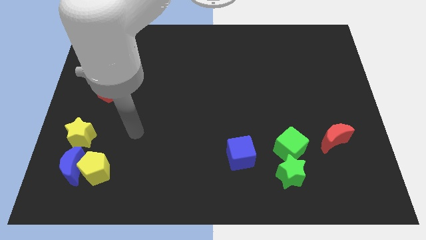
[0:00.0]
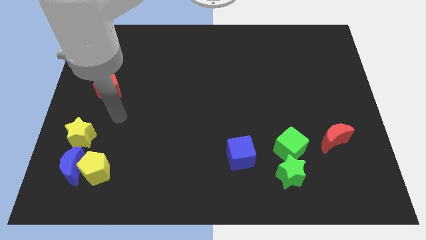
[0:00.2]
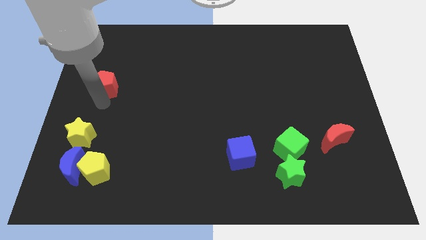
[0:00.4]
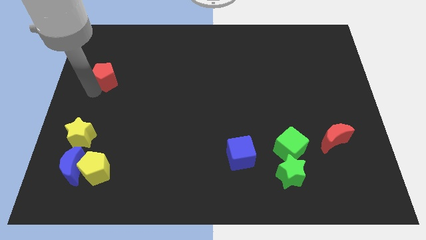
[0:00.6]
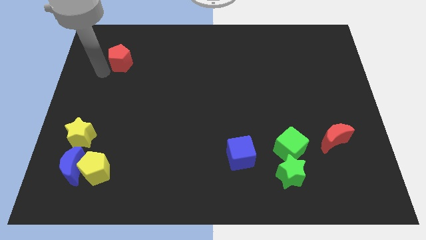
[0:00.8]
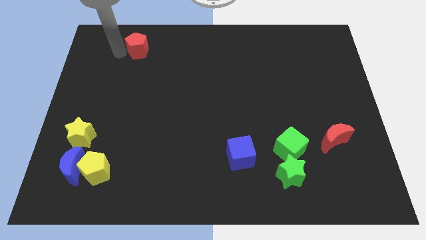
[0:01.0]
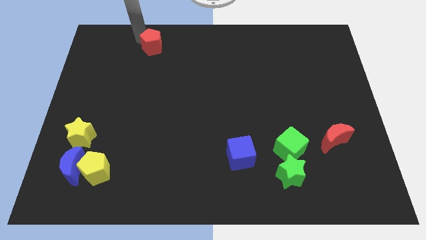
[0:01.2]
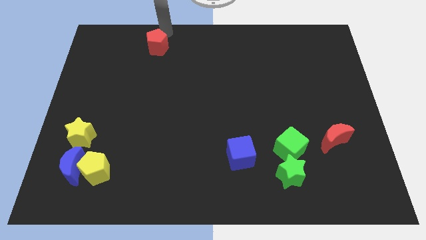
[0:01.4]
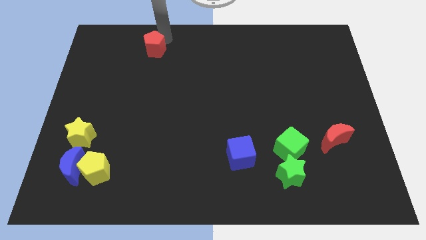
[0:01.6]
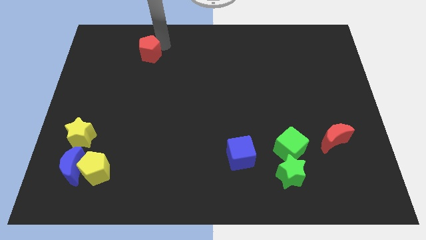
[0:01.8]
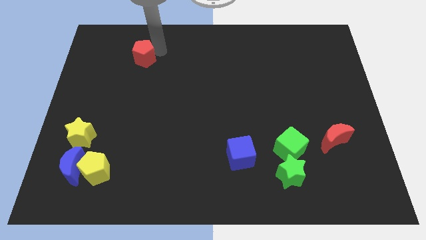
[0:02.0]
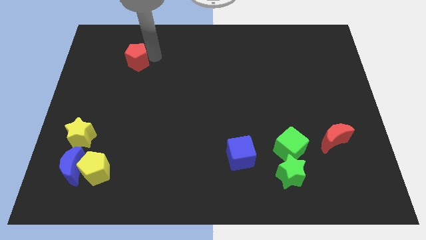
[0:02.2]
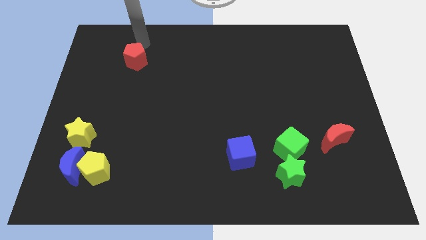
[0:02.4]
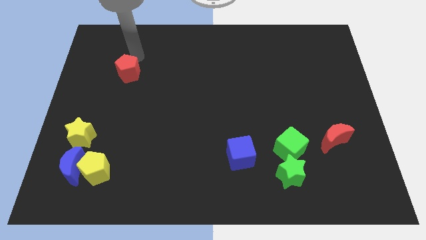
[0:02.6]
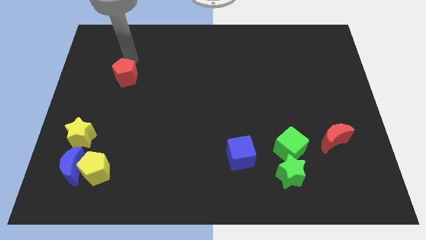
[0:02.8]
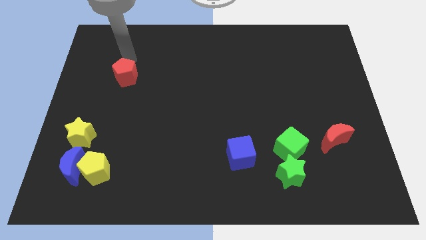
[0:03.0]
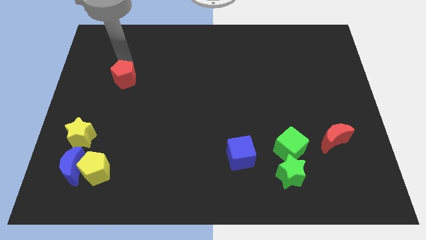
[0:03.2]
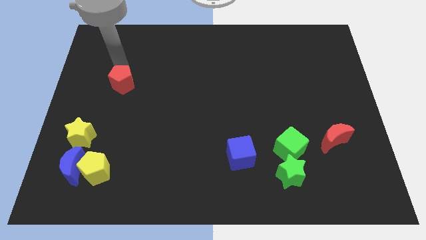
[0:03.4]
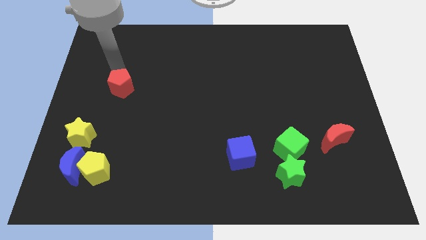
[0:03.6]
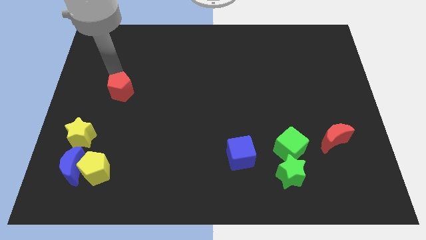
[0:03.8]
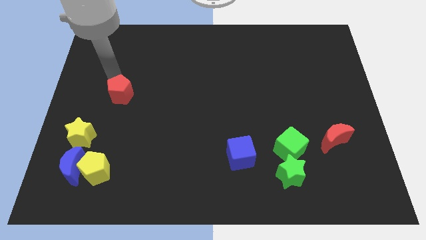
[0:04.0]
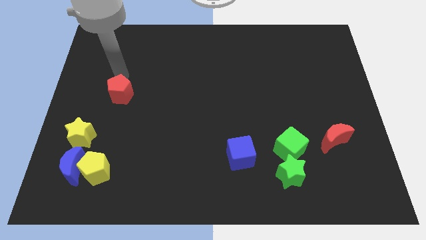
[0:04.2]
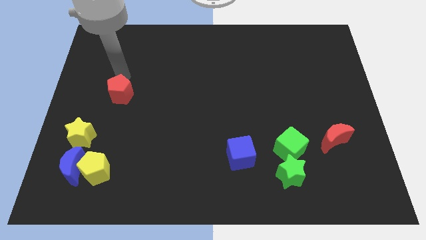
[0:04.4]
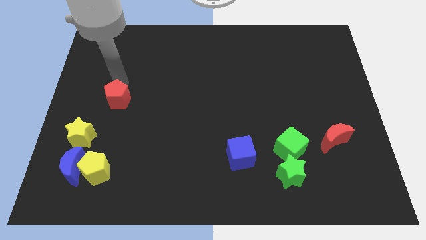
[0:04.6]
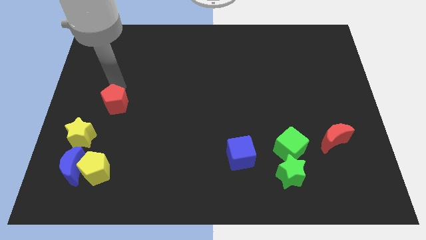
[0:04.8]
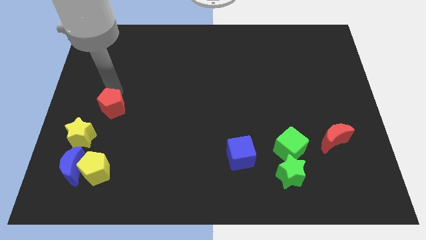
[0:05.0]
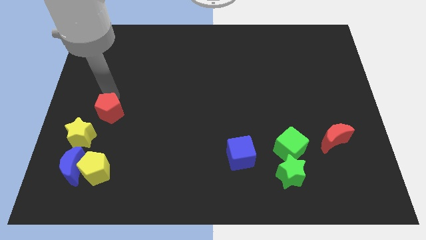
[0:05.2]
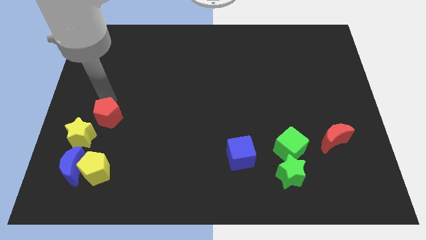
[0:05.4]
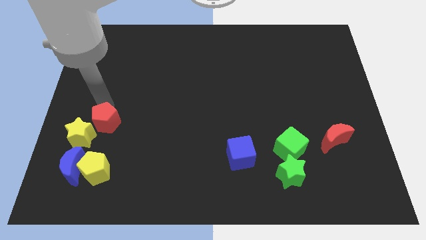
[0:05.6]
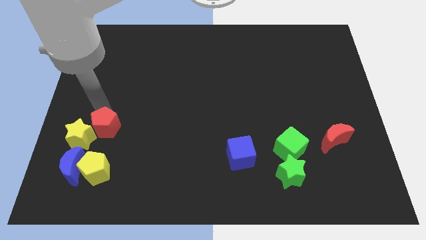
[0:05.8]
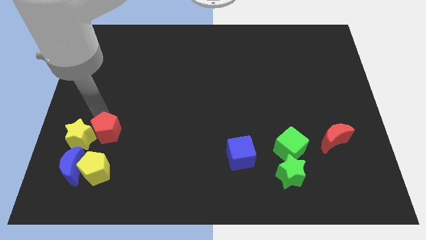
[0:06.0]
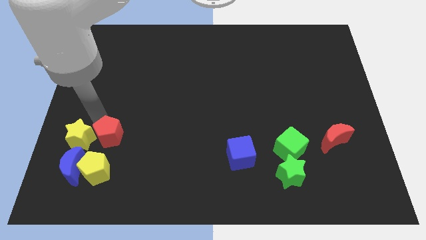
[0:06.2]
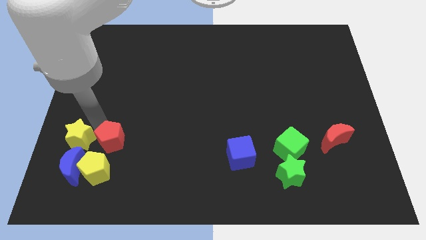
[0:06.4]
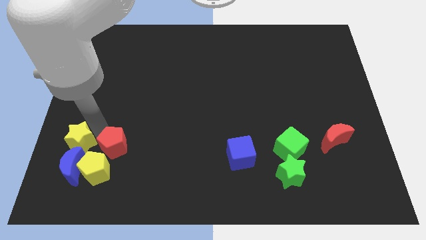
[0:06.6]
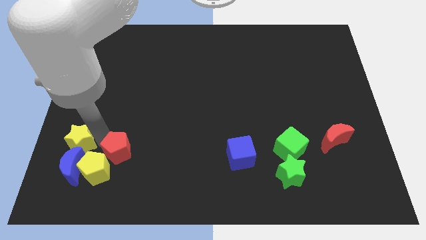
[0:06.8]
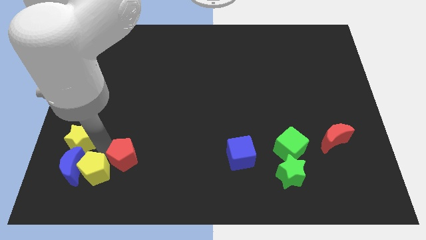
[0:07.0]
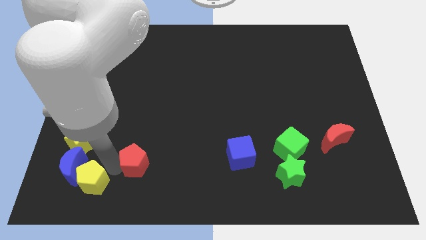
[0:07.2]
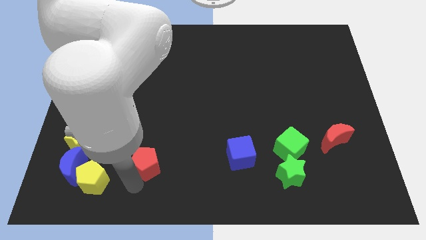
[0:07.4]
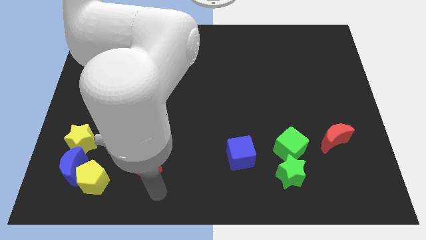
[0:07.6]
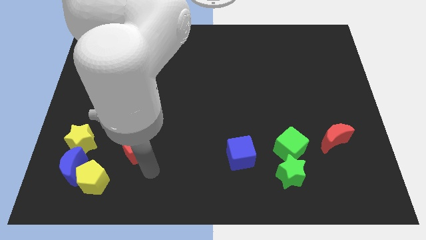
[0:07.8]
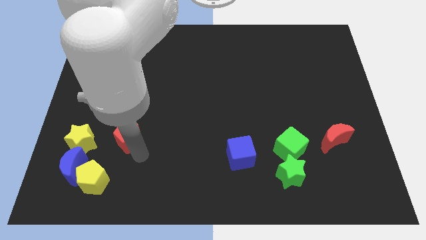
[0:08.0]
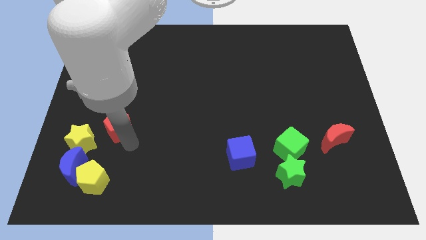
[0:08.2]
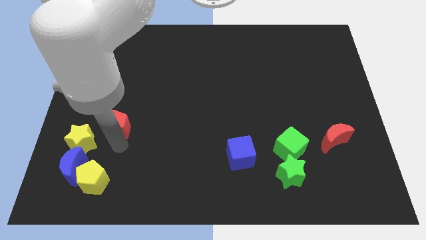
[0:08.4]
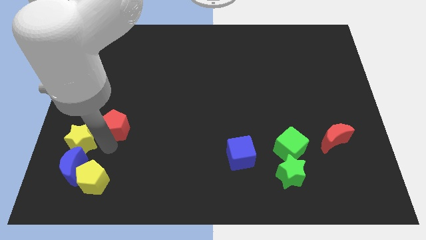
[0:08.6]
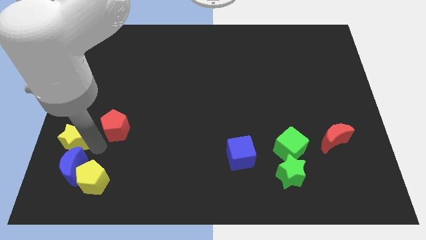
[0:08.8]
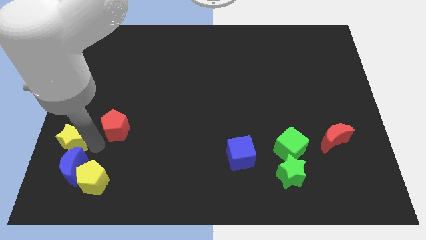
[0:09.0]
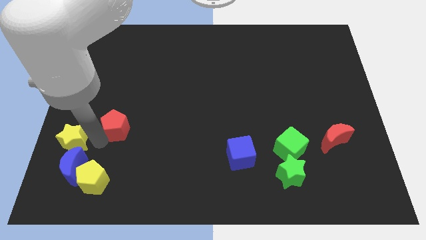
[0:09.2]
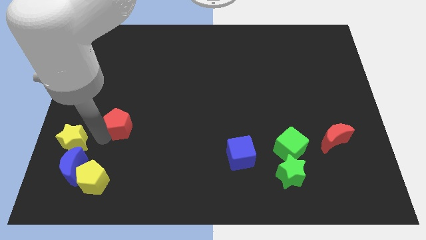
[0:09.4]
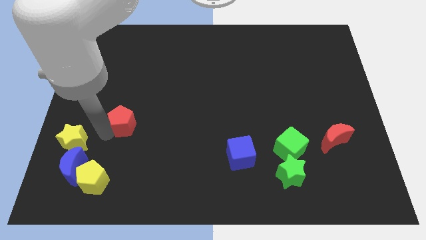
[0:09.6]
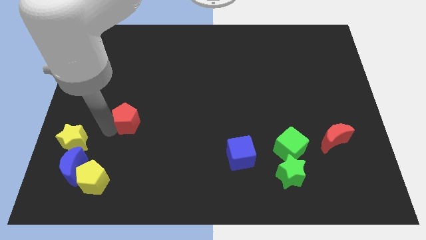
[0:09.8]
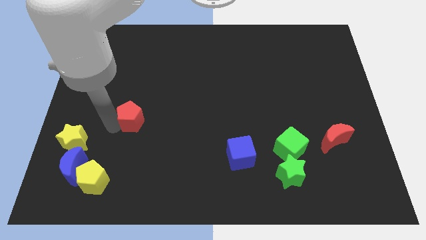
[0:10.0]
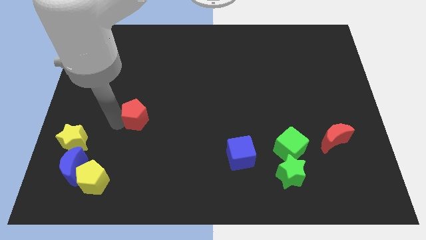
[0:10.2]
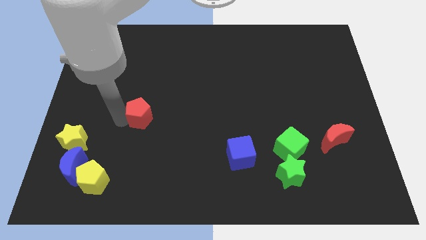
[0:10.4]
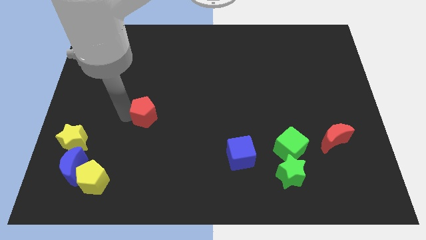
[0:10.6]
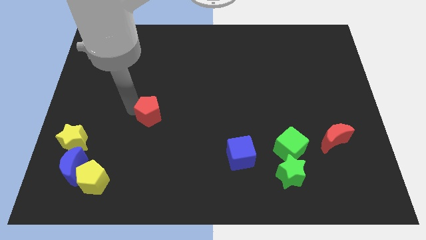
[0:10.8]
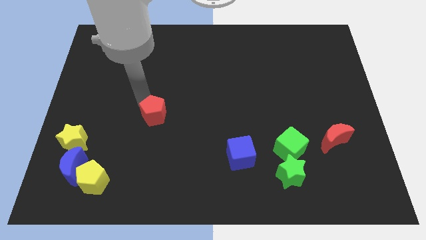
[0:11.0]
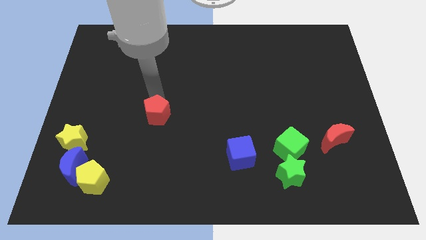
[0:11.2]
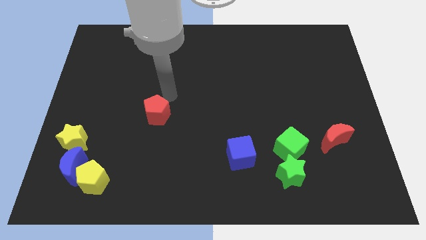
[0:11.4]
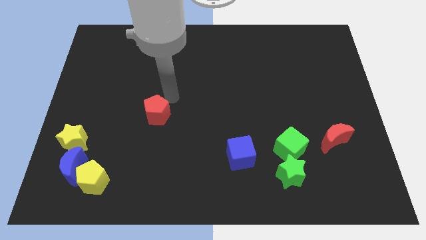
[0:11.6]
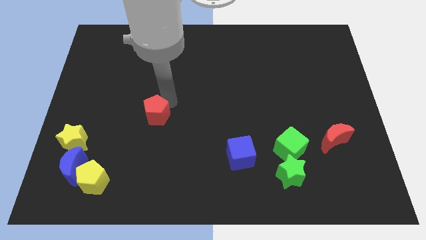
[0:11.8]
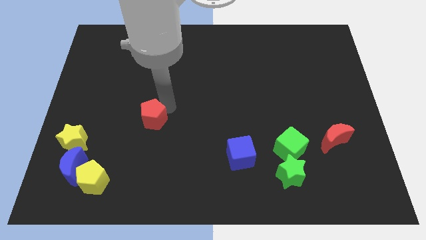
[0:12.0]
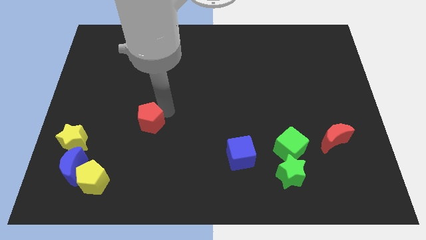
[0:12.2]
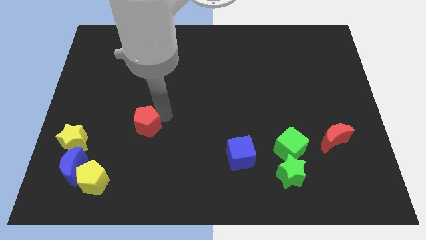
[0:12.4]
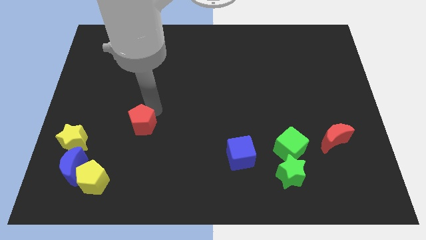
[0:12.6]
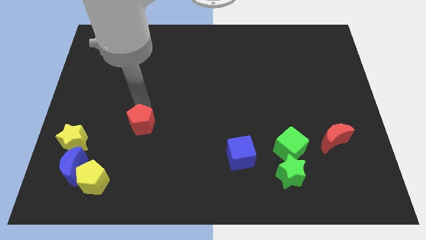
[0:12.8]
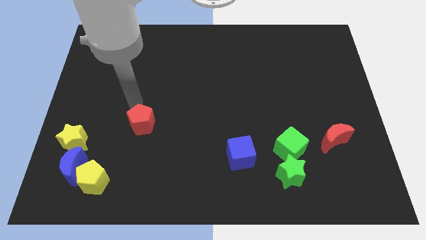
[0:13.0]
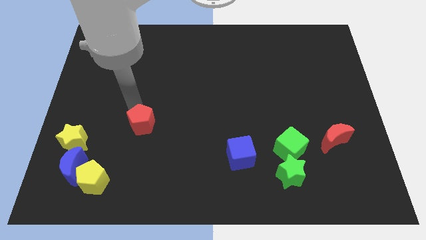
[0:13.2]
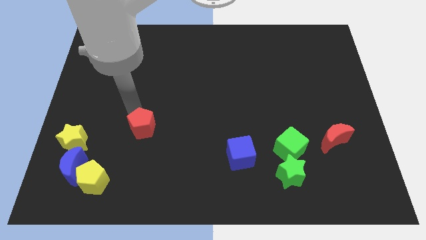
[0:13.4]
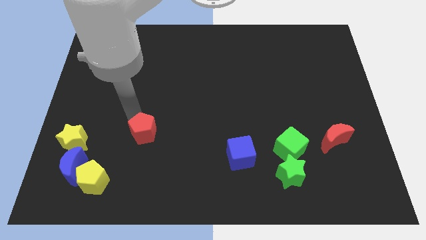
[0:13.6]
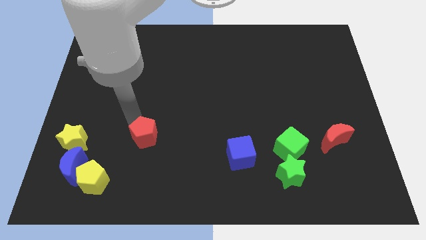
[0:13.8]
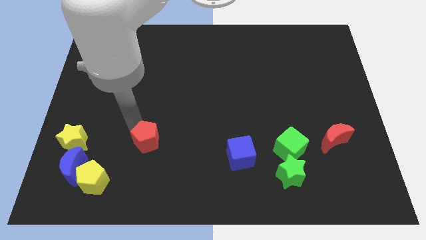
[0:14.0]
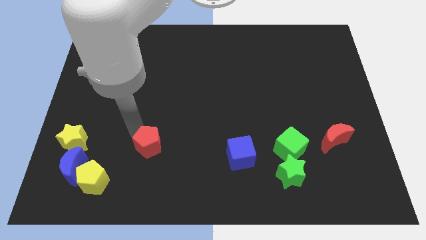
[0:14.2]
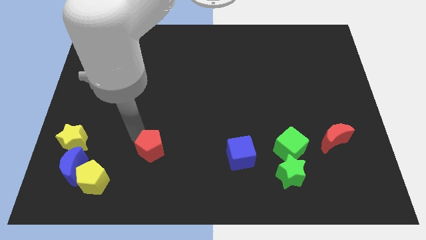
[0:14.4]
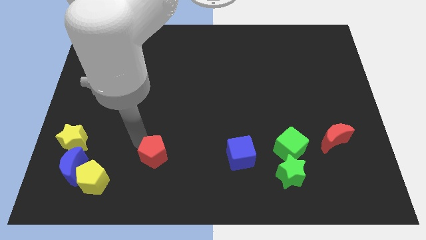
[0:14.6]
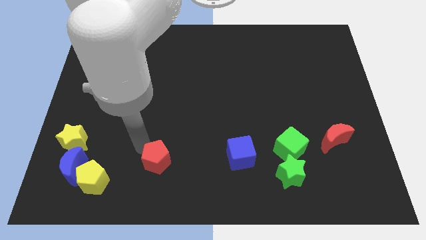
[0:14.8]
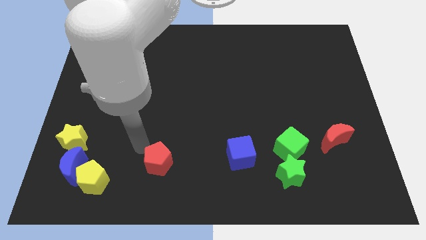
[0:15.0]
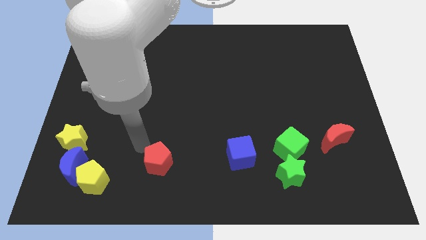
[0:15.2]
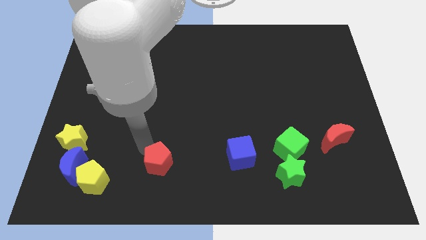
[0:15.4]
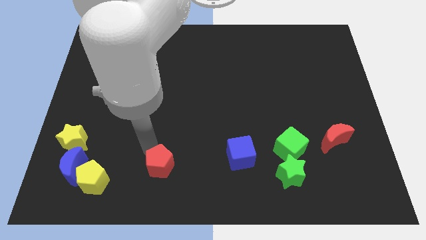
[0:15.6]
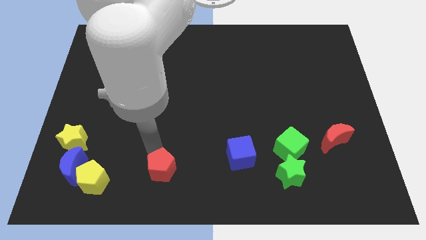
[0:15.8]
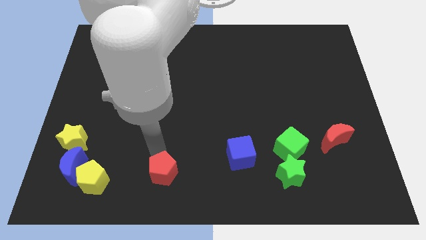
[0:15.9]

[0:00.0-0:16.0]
put the red pentagon to the bottom side
